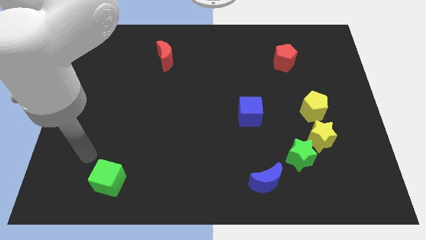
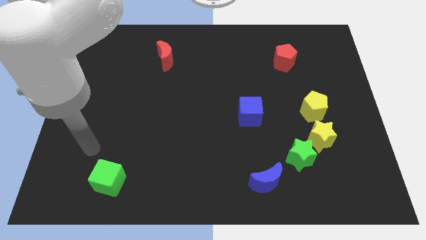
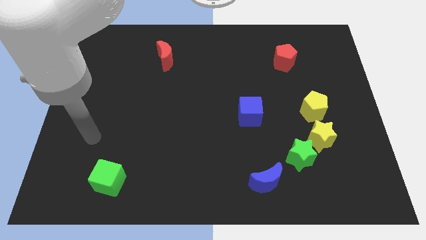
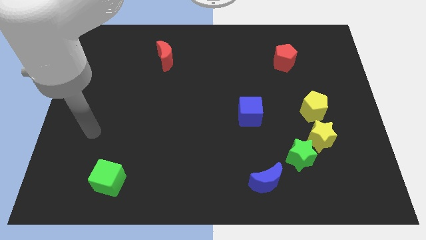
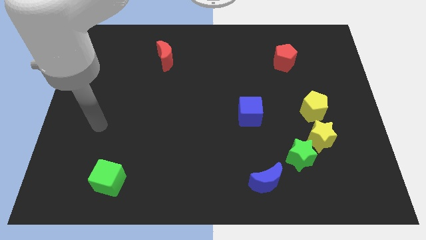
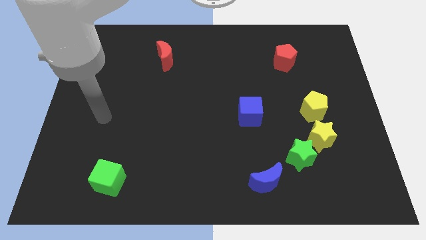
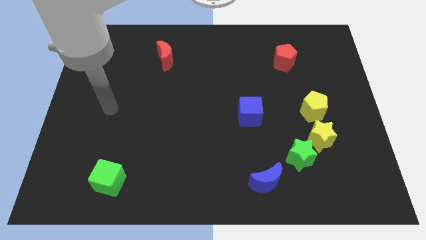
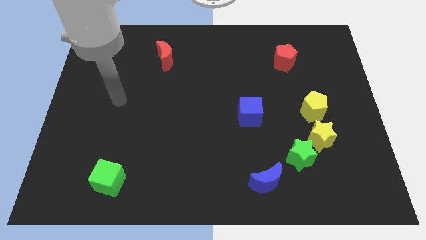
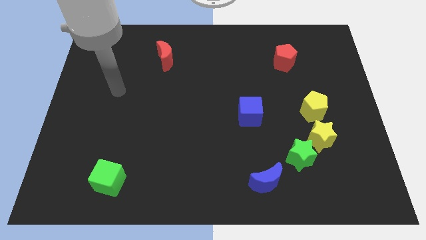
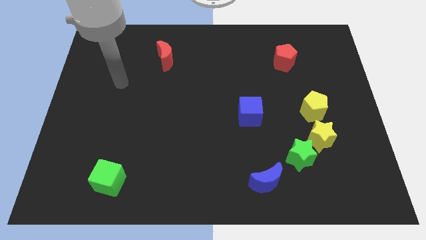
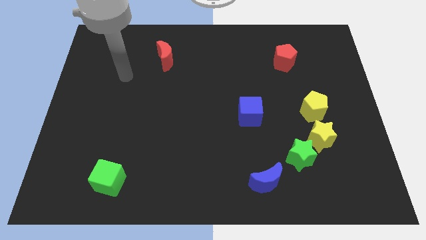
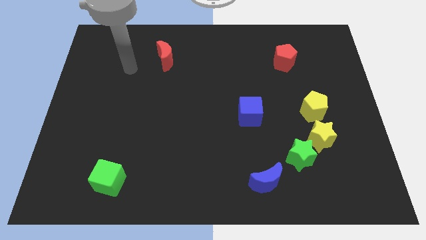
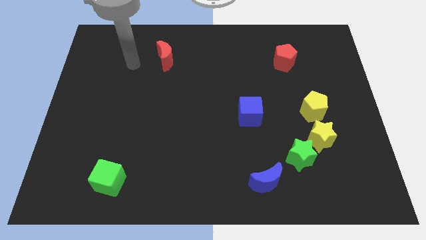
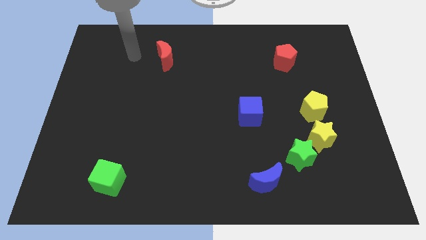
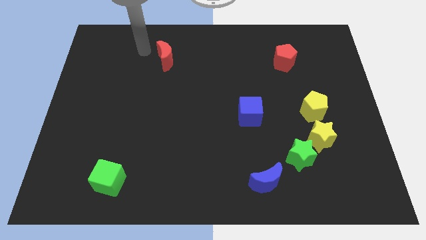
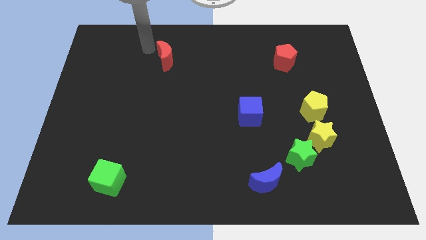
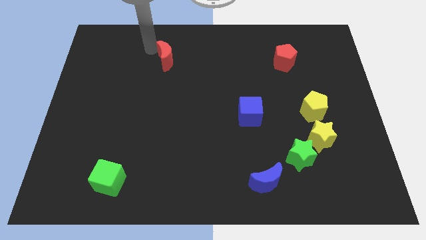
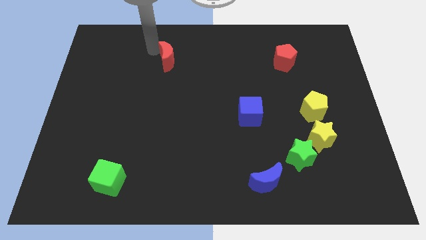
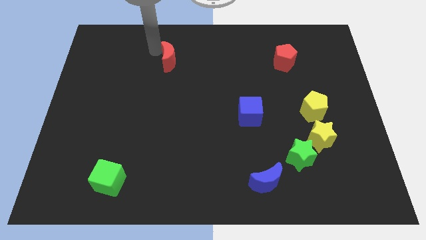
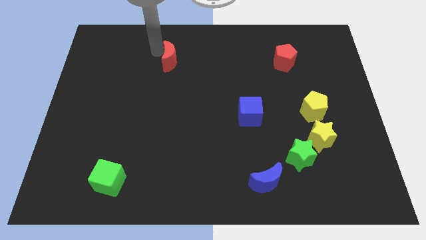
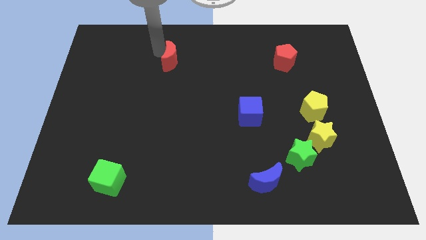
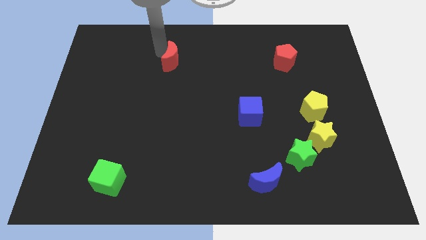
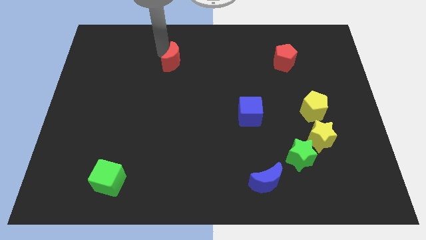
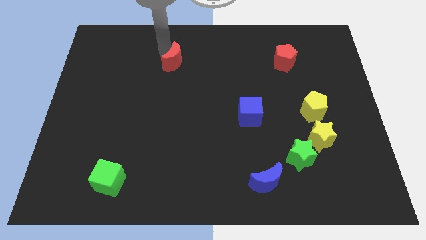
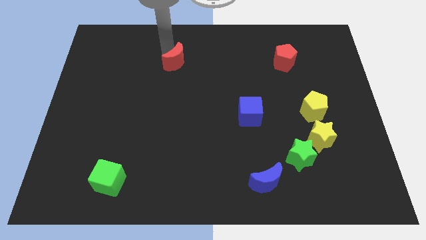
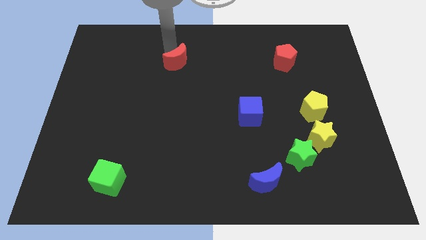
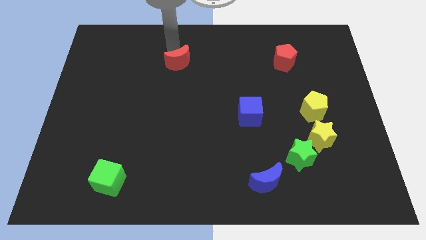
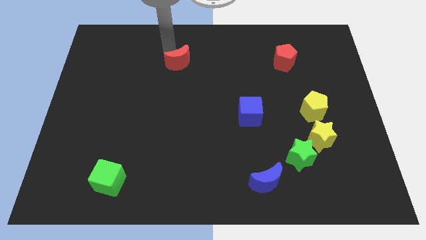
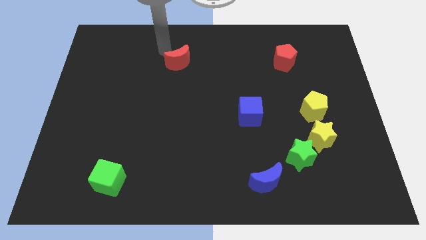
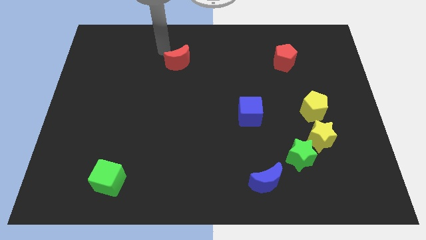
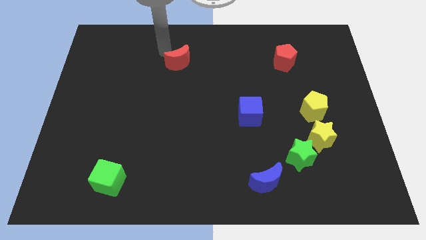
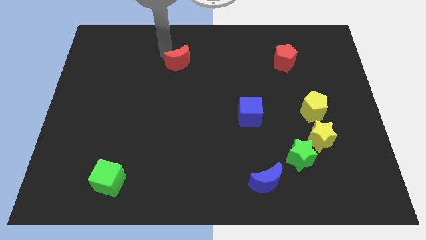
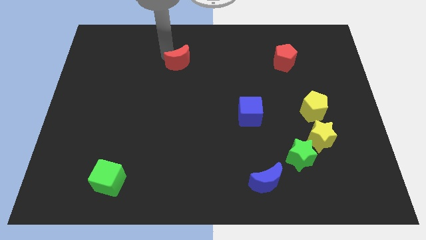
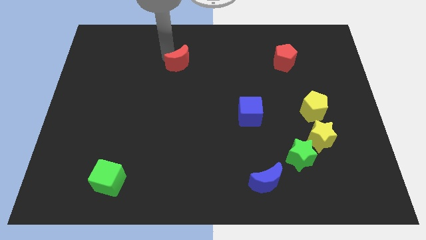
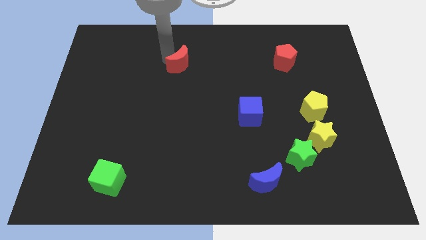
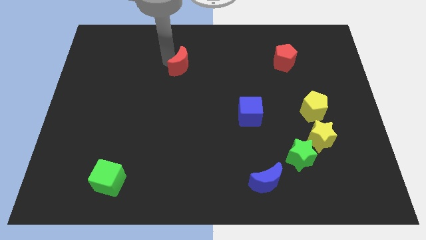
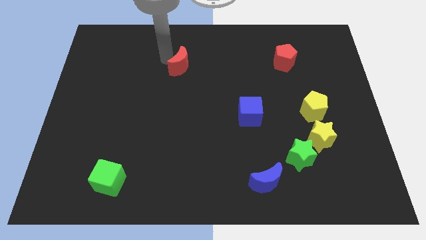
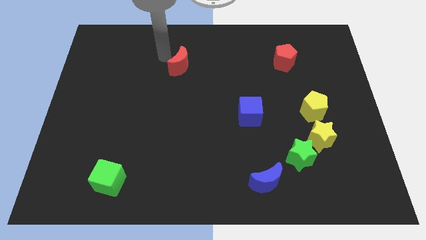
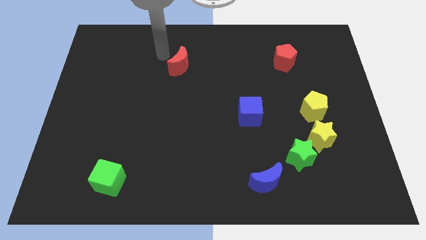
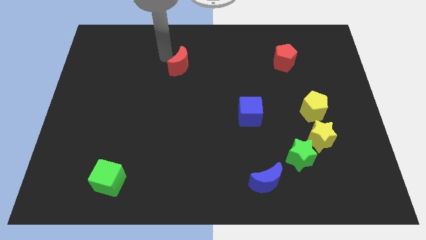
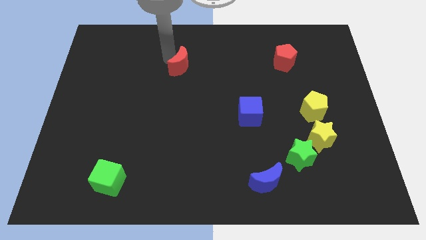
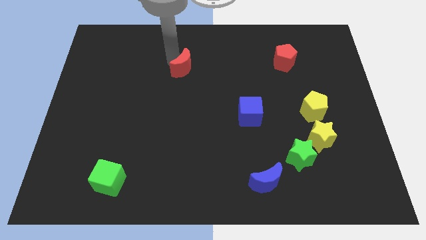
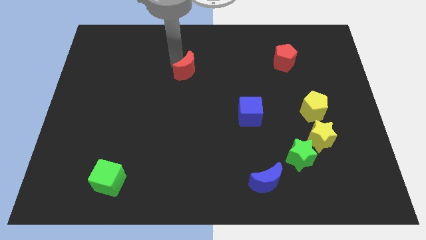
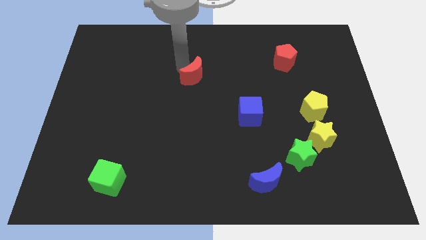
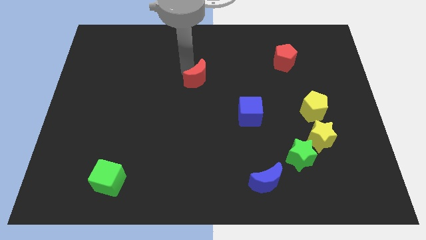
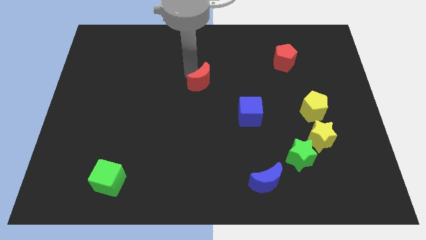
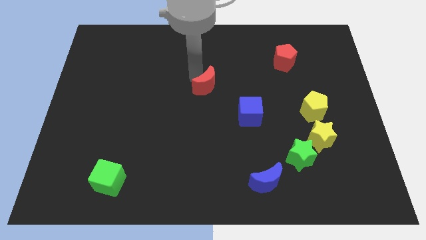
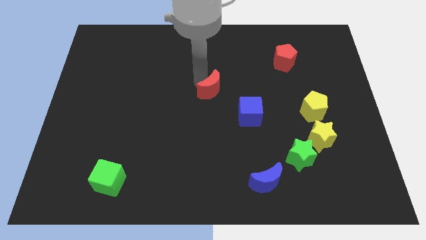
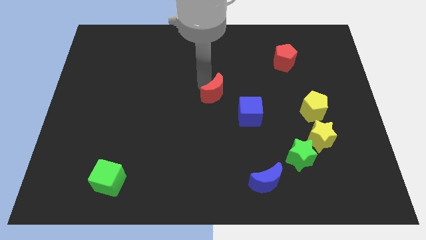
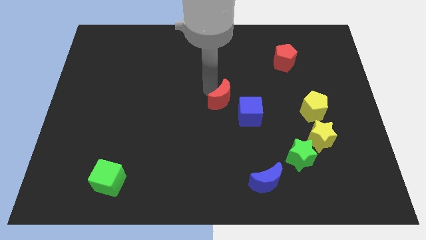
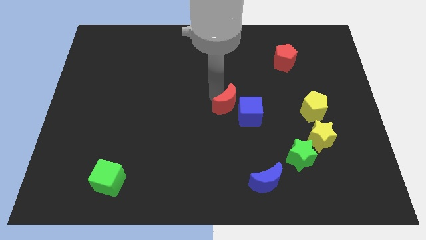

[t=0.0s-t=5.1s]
move the red moon next to the blue cube

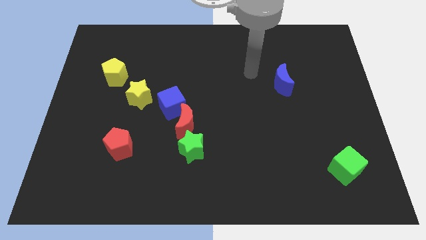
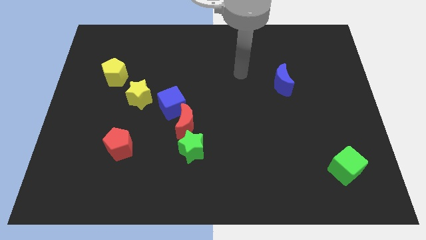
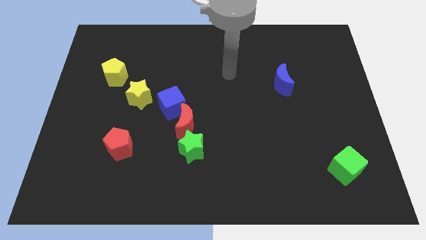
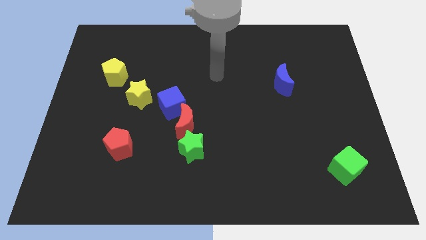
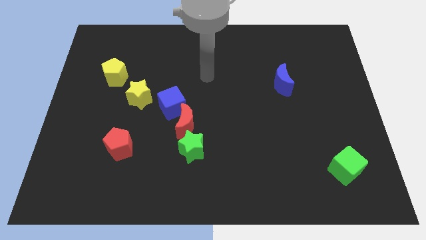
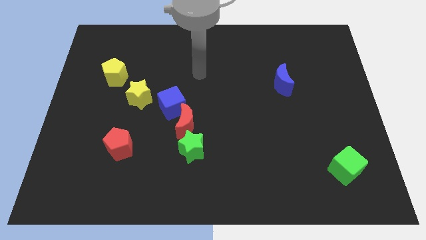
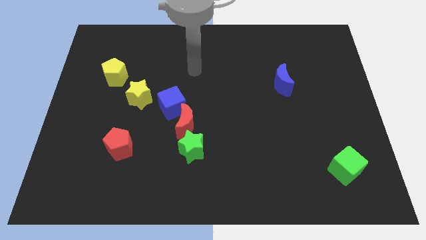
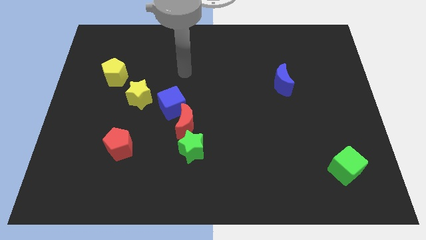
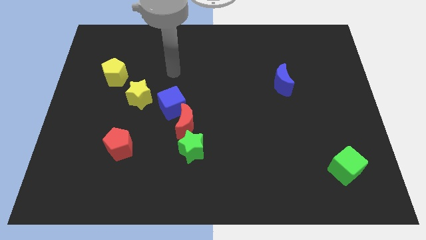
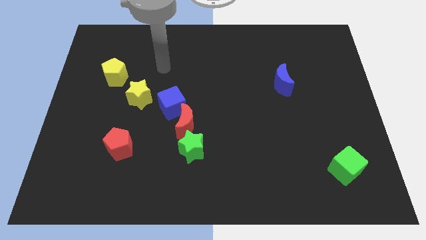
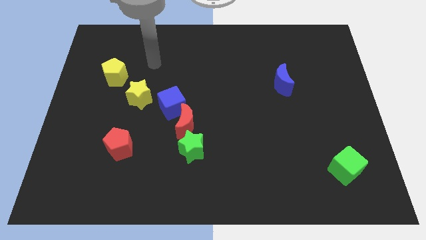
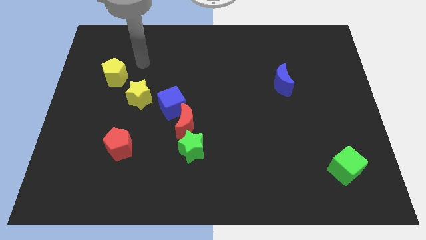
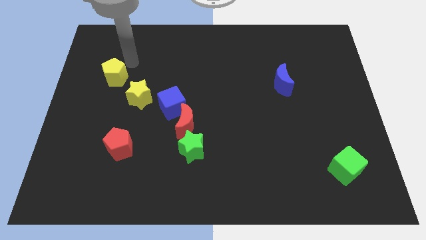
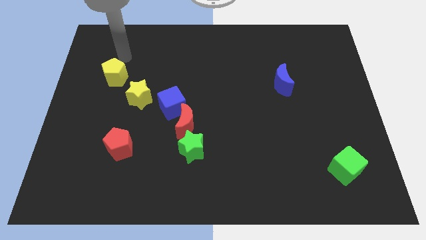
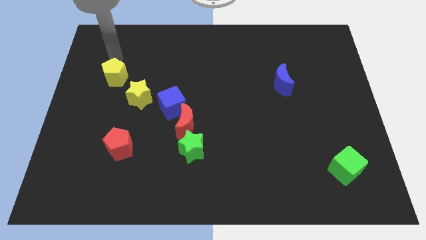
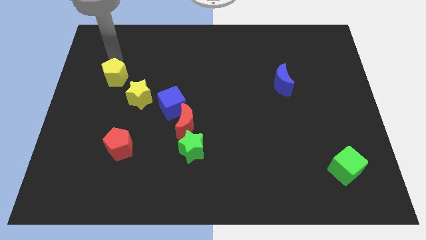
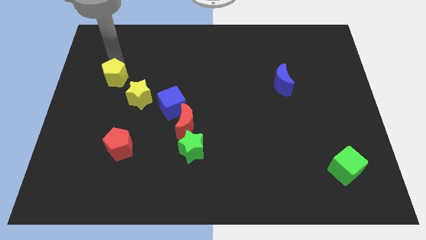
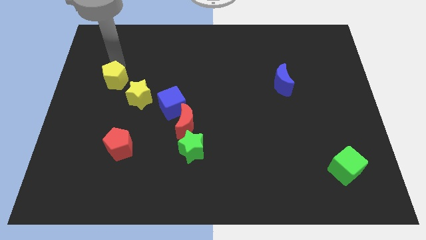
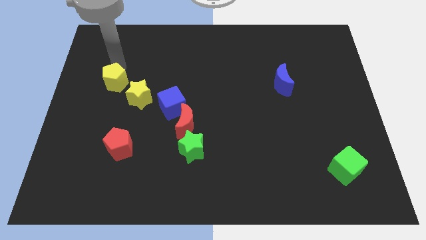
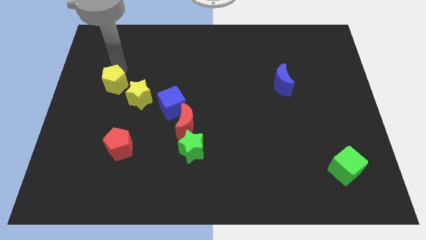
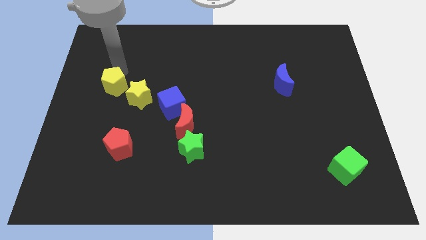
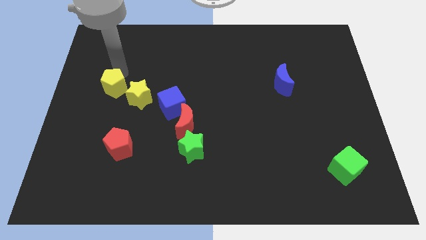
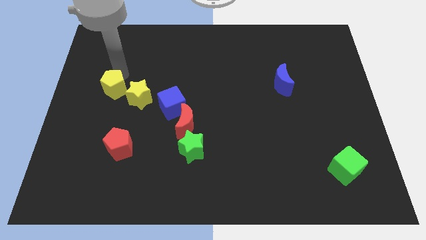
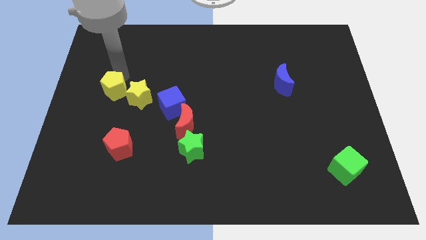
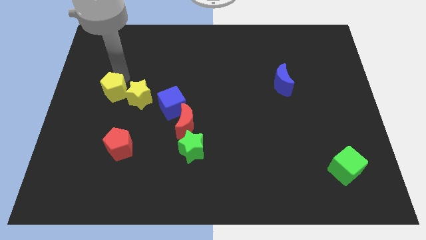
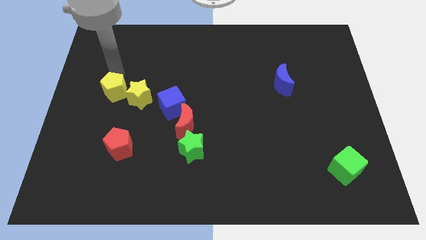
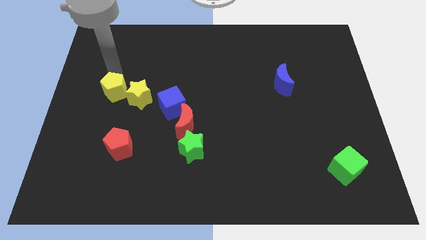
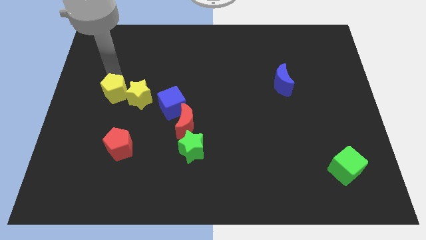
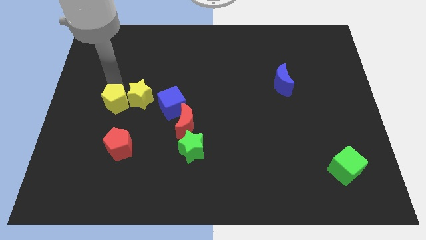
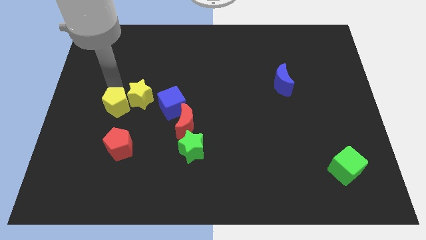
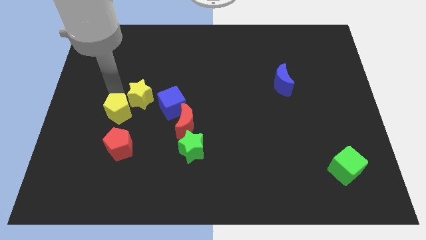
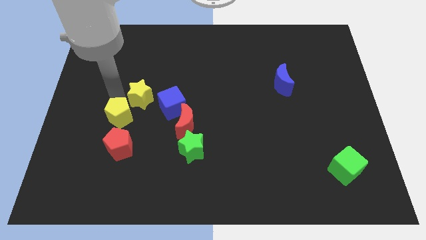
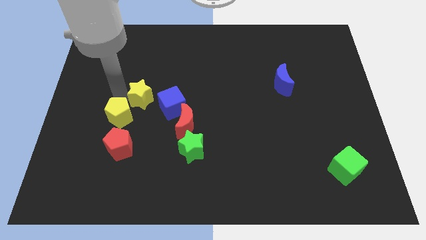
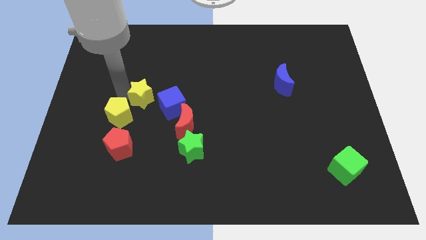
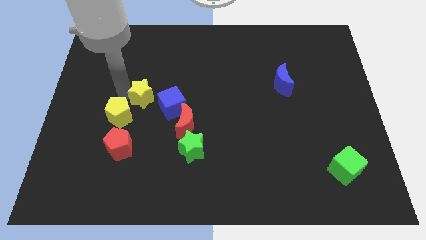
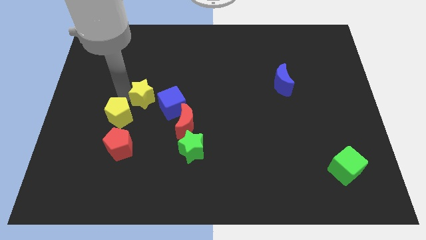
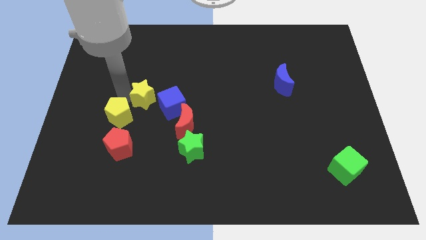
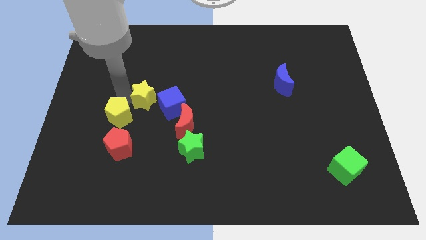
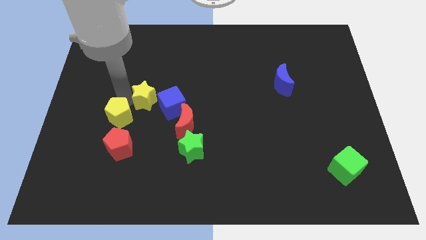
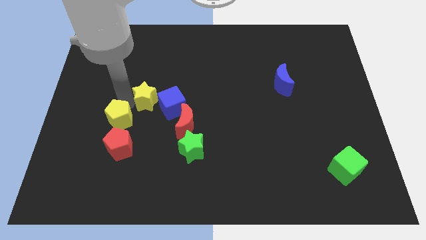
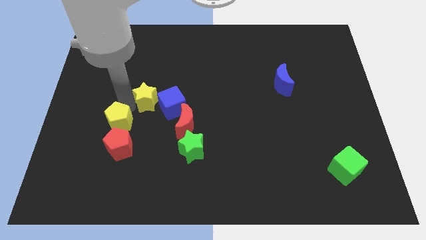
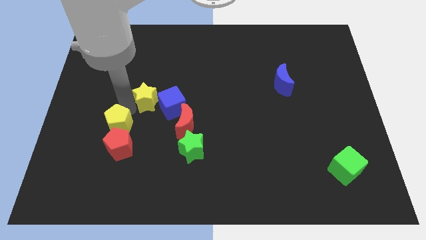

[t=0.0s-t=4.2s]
move the yellow pentagon towards the red pentagon
